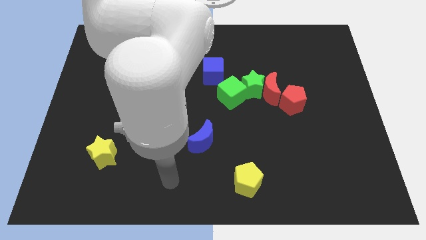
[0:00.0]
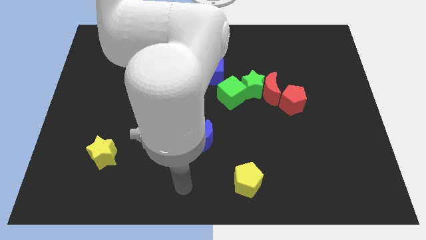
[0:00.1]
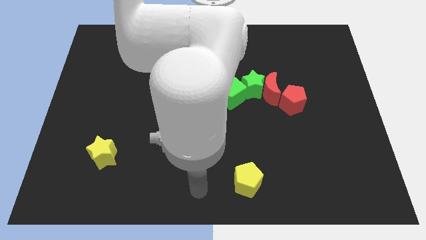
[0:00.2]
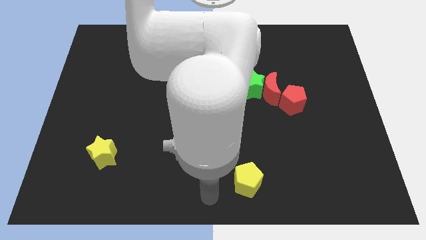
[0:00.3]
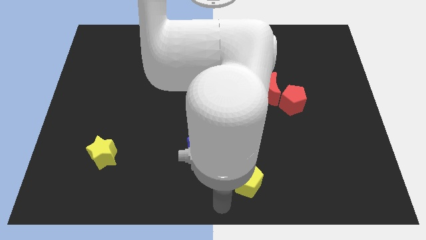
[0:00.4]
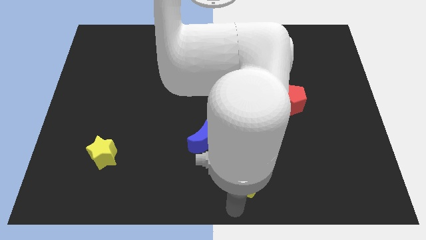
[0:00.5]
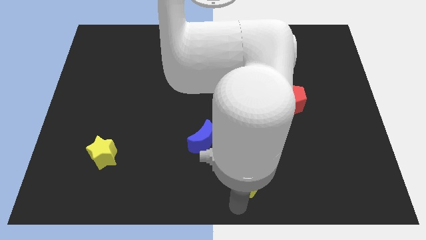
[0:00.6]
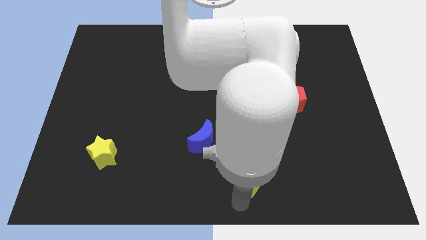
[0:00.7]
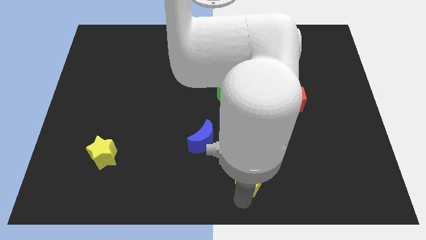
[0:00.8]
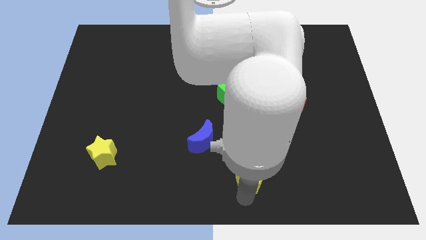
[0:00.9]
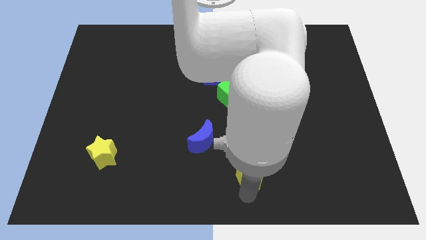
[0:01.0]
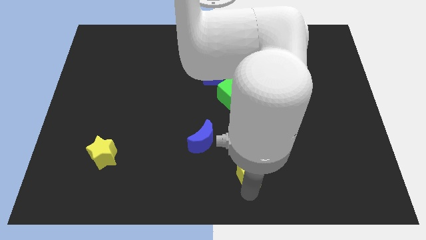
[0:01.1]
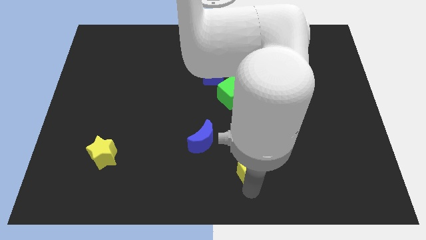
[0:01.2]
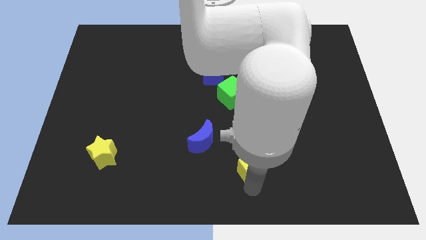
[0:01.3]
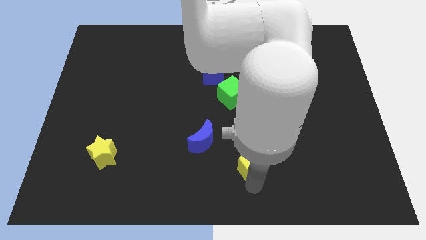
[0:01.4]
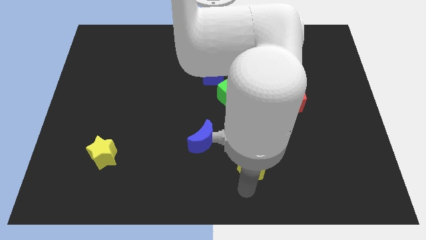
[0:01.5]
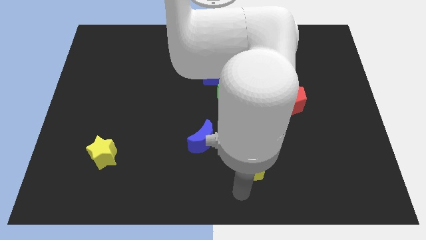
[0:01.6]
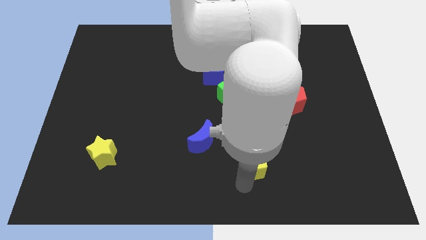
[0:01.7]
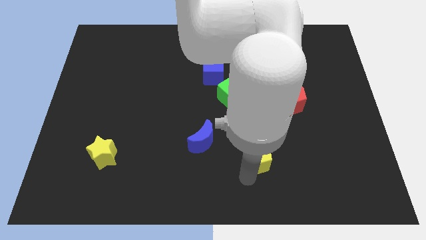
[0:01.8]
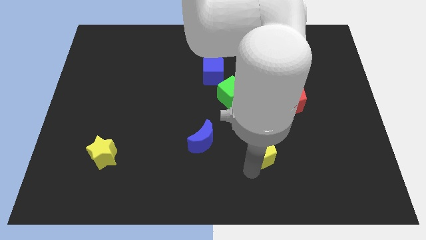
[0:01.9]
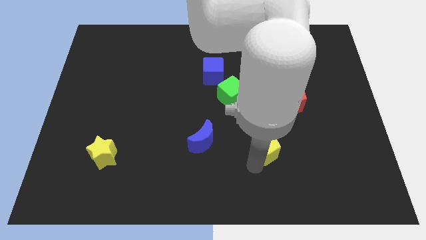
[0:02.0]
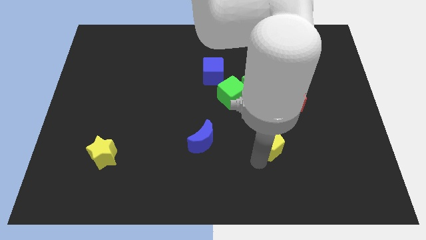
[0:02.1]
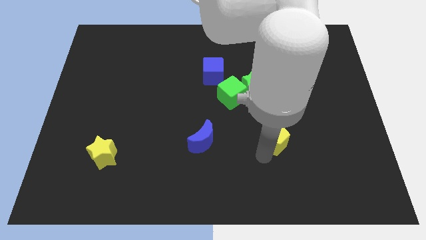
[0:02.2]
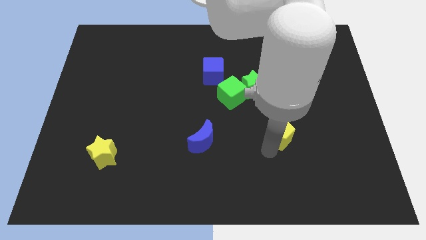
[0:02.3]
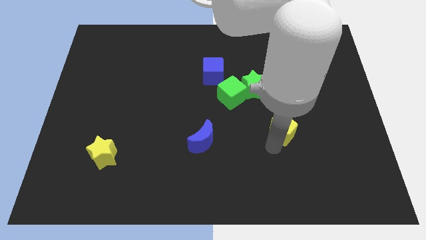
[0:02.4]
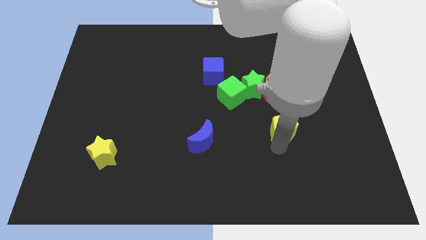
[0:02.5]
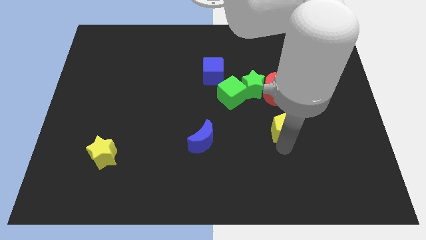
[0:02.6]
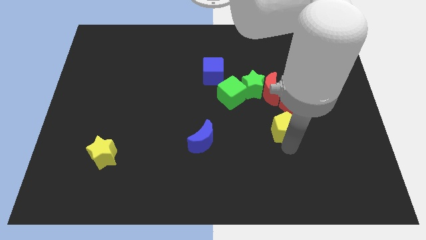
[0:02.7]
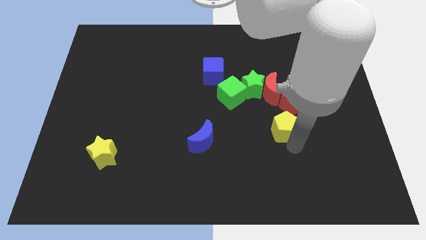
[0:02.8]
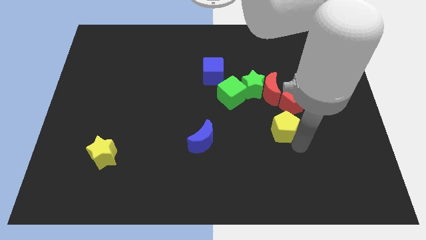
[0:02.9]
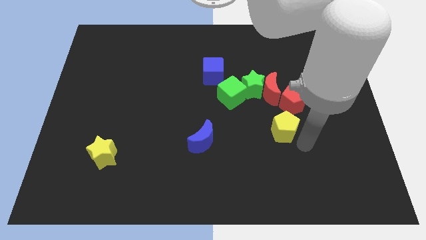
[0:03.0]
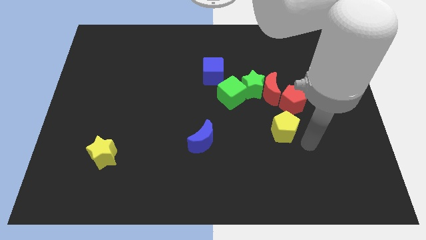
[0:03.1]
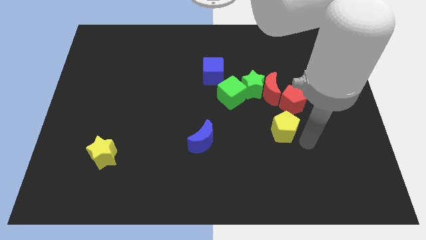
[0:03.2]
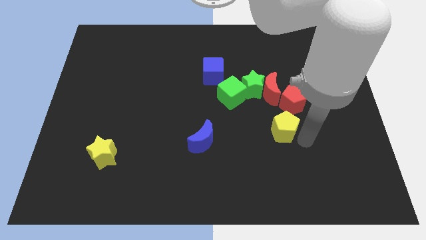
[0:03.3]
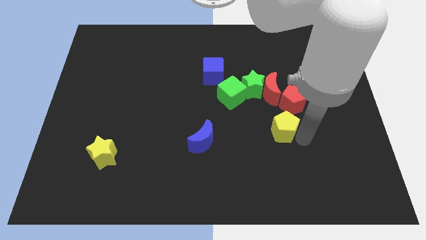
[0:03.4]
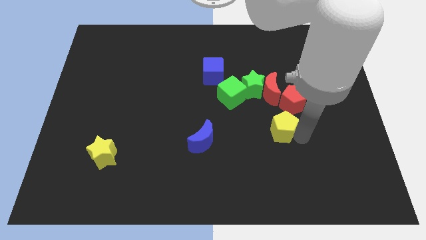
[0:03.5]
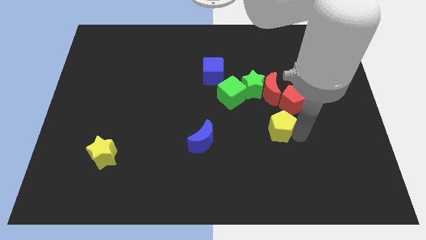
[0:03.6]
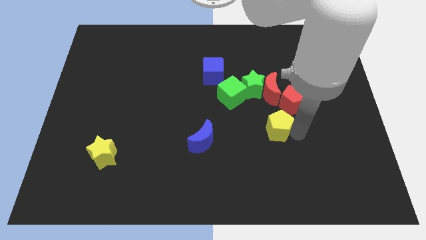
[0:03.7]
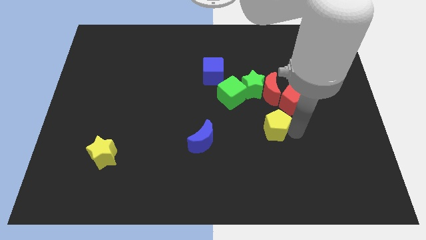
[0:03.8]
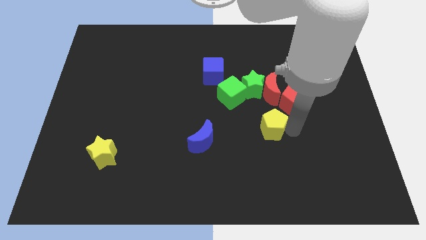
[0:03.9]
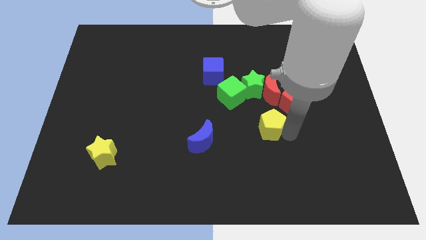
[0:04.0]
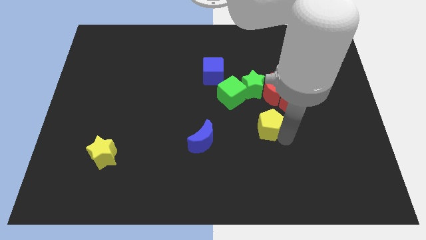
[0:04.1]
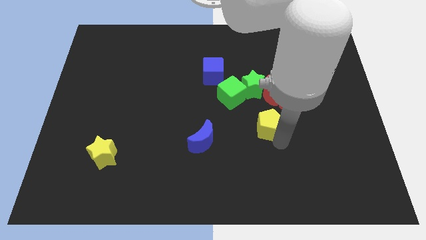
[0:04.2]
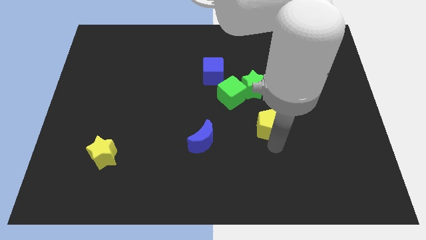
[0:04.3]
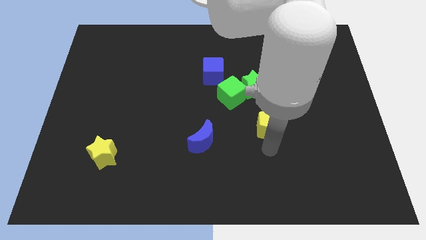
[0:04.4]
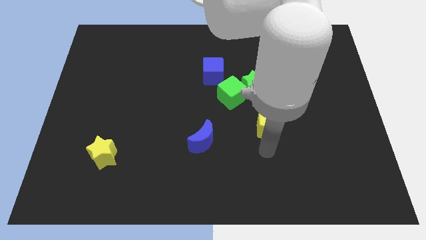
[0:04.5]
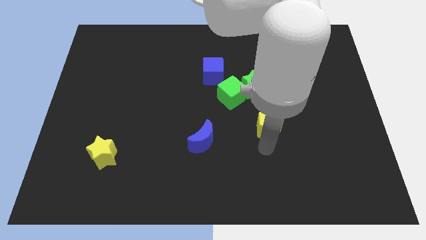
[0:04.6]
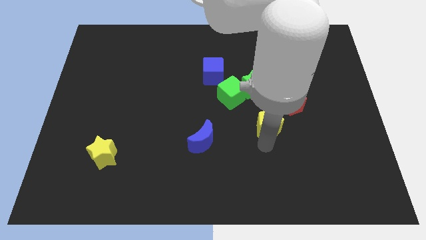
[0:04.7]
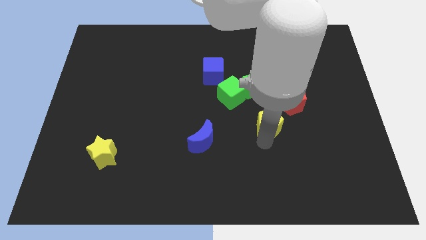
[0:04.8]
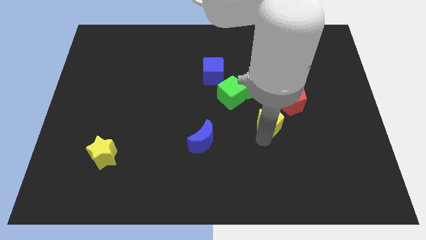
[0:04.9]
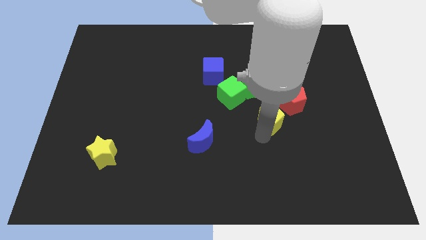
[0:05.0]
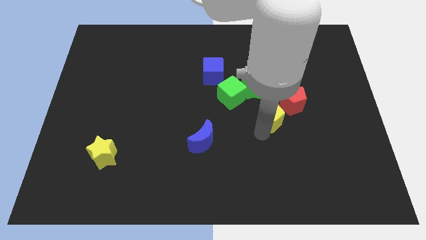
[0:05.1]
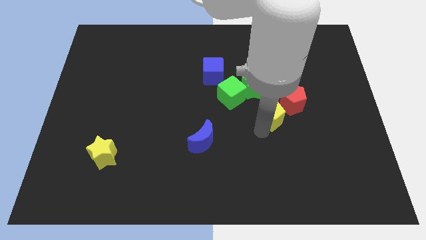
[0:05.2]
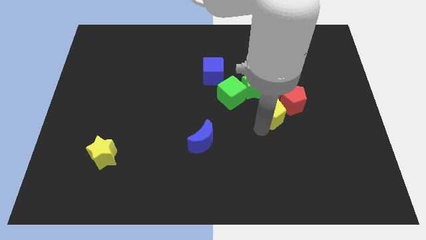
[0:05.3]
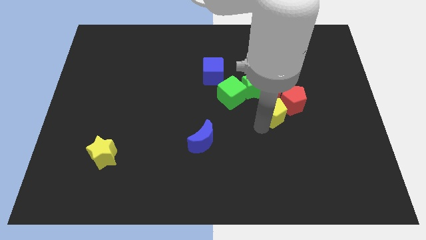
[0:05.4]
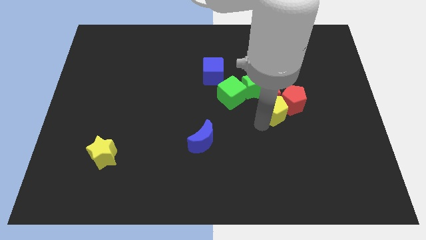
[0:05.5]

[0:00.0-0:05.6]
slide the yellow pentagon next to the red moon

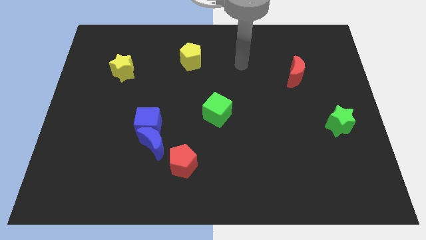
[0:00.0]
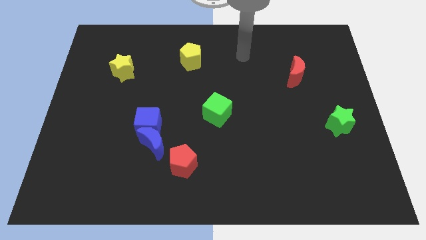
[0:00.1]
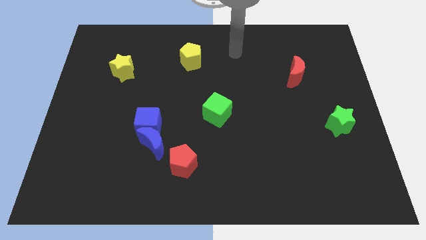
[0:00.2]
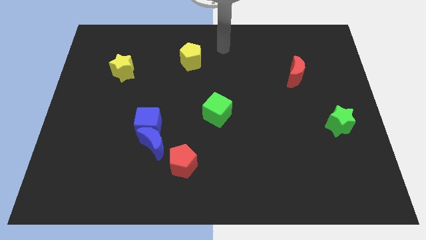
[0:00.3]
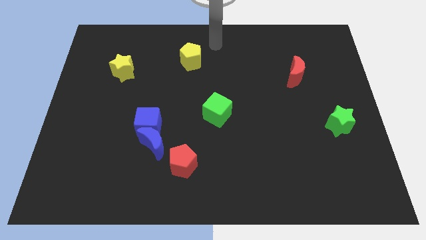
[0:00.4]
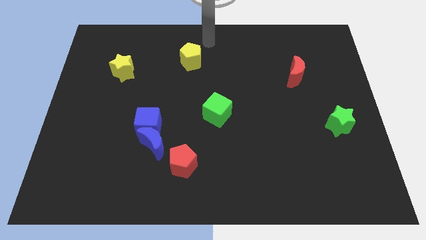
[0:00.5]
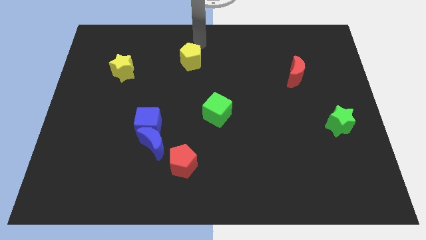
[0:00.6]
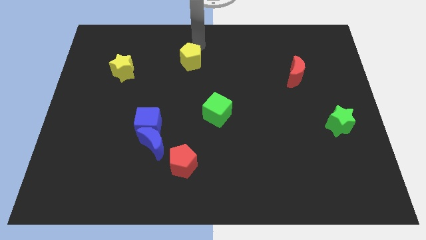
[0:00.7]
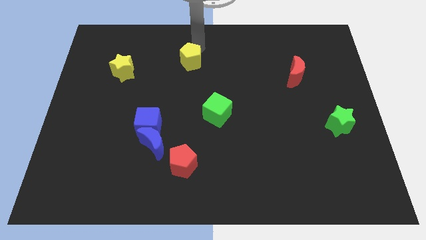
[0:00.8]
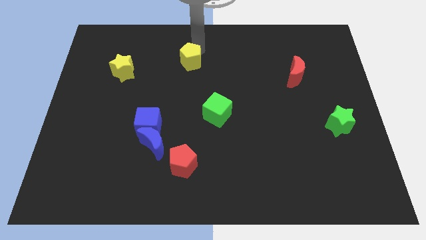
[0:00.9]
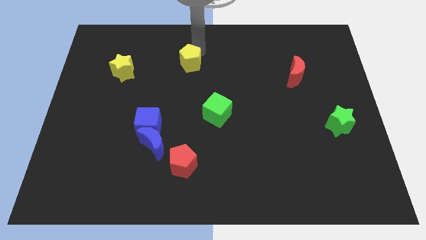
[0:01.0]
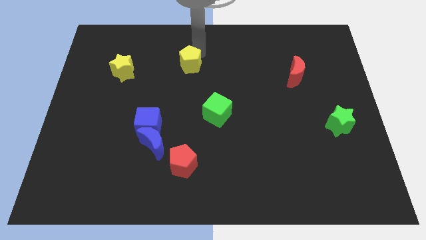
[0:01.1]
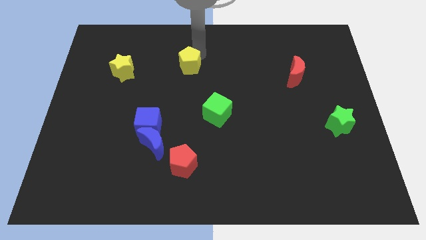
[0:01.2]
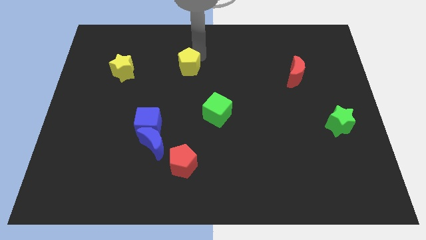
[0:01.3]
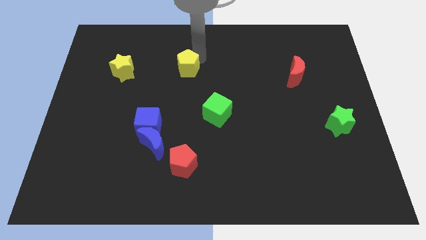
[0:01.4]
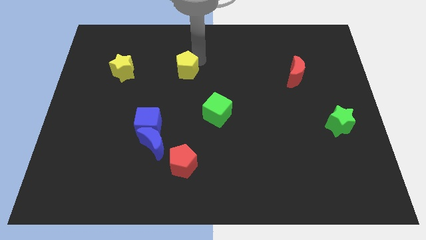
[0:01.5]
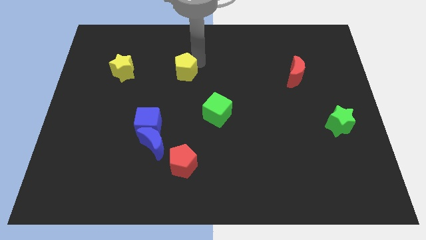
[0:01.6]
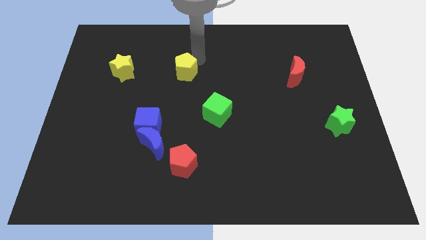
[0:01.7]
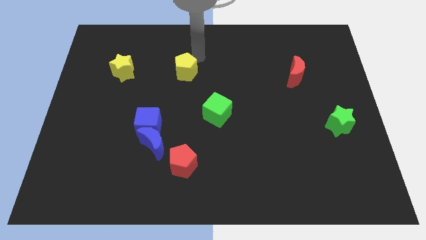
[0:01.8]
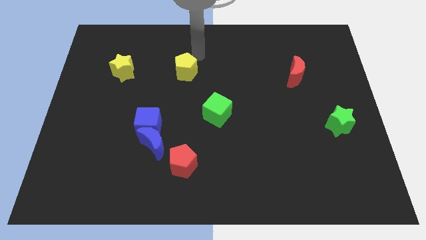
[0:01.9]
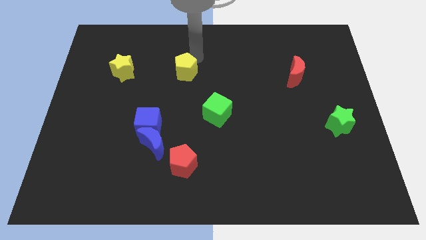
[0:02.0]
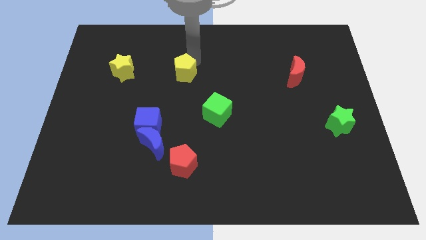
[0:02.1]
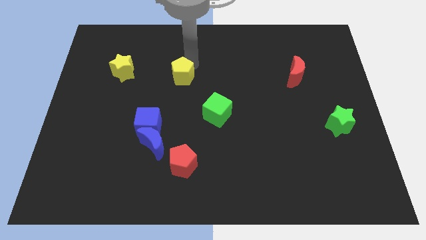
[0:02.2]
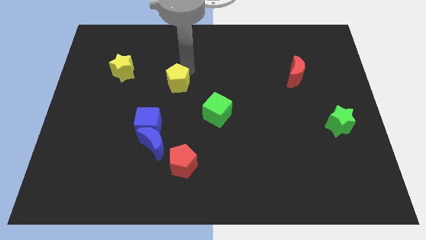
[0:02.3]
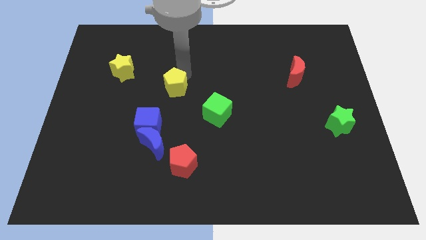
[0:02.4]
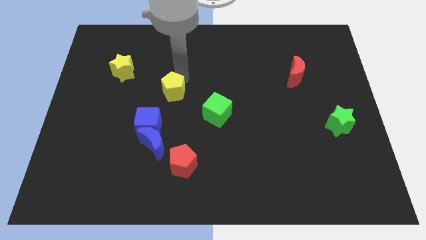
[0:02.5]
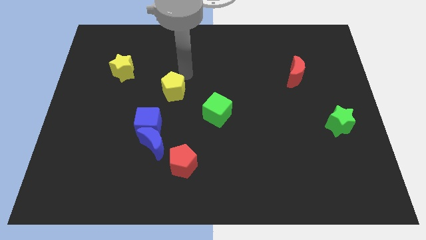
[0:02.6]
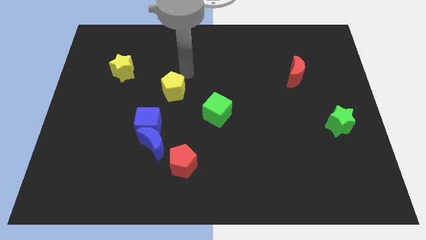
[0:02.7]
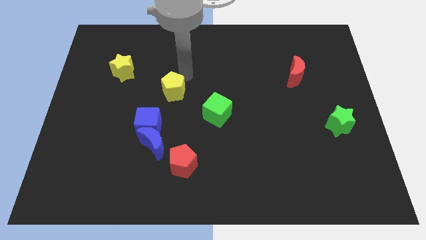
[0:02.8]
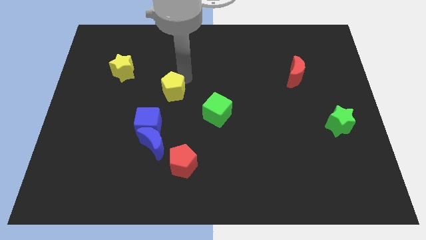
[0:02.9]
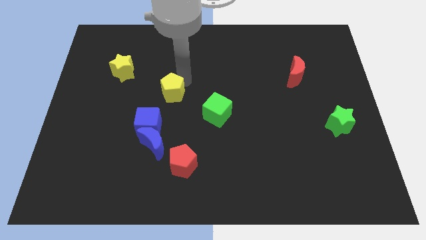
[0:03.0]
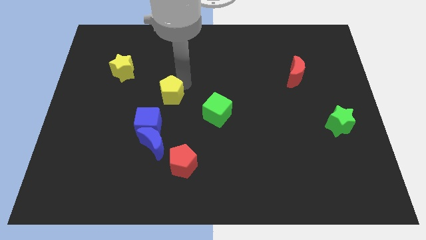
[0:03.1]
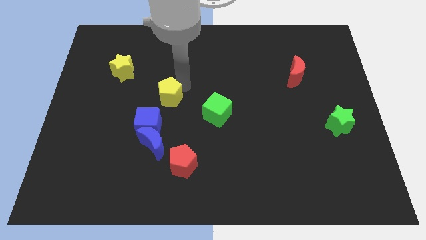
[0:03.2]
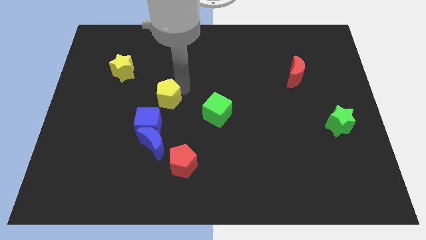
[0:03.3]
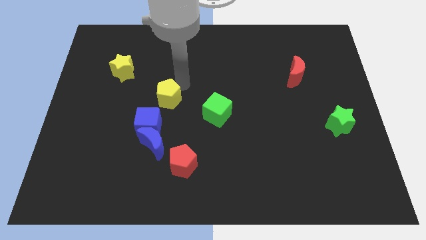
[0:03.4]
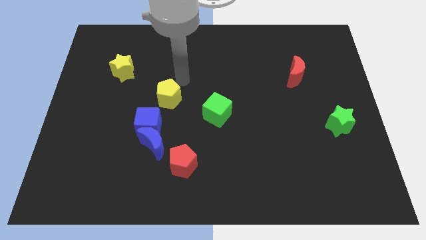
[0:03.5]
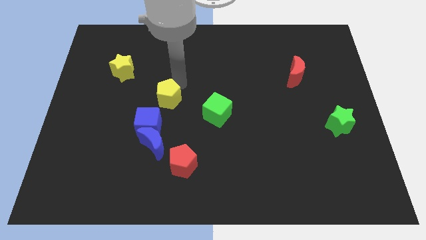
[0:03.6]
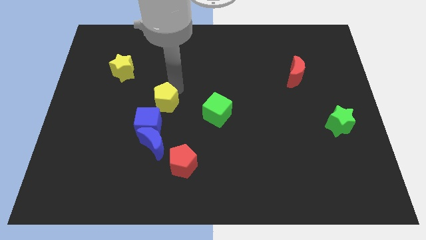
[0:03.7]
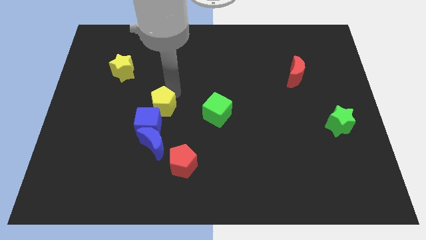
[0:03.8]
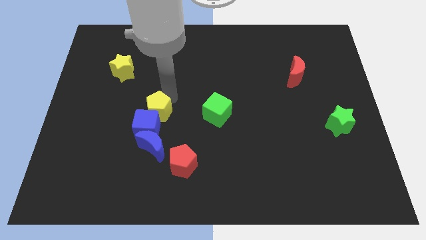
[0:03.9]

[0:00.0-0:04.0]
slide the yellow pentagon next to the blue cube
